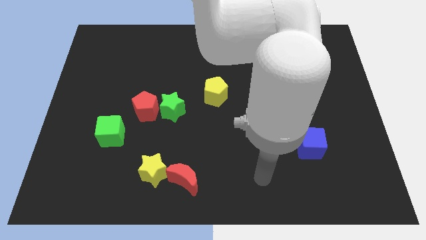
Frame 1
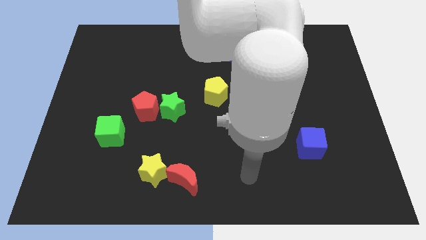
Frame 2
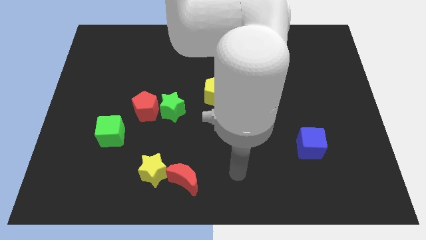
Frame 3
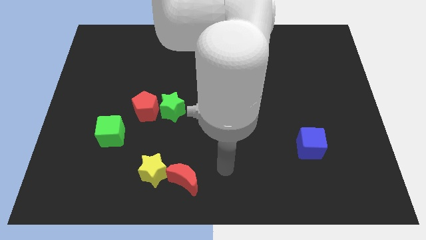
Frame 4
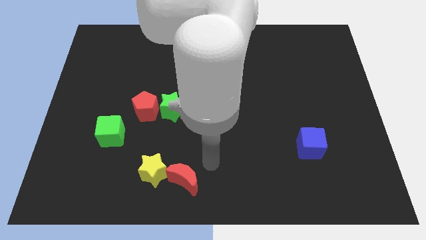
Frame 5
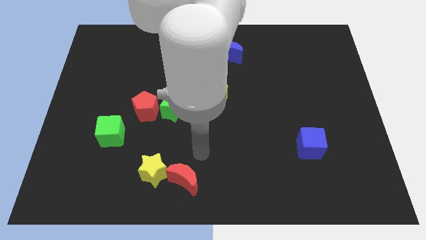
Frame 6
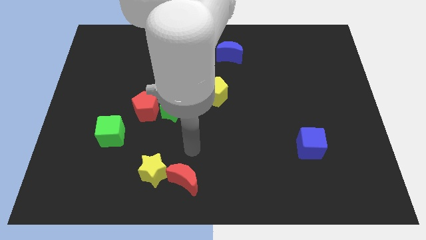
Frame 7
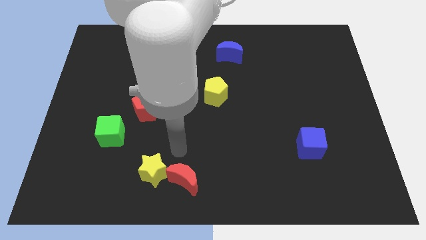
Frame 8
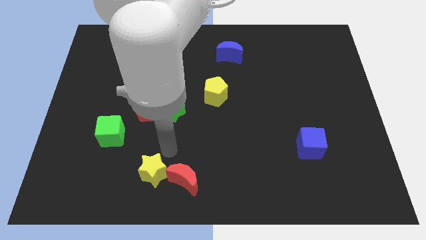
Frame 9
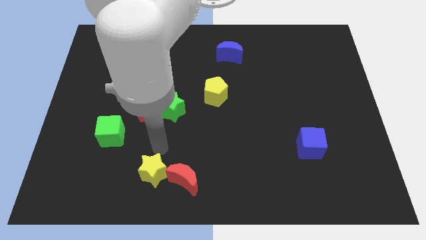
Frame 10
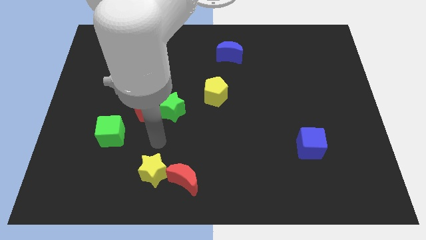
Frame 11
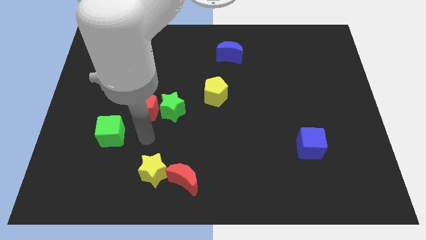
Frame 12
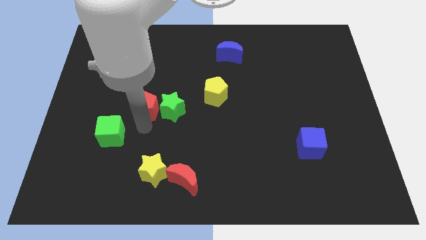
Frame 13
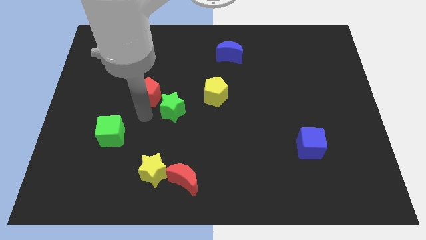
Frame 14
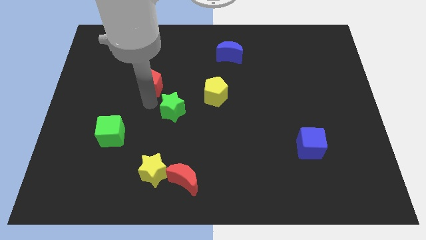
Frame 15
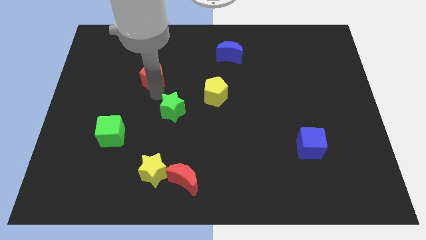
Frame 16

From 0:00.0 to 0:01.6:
move the green star away from the red pentagon

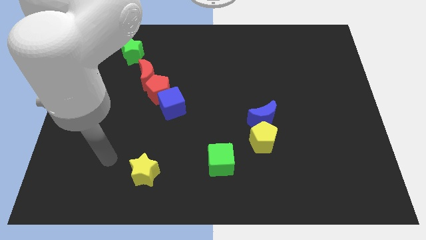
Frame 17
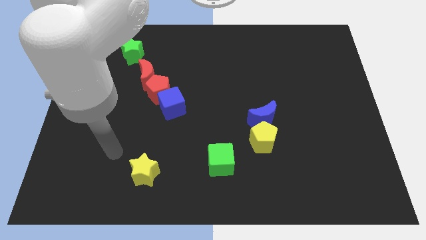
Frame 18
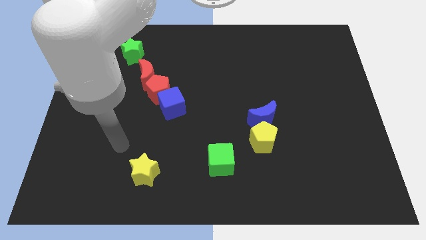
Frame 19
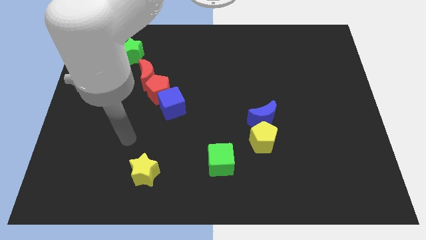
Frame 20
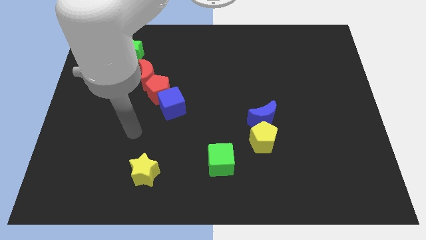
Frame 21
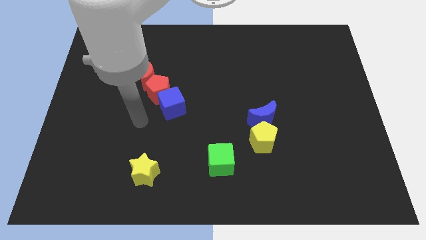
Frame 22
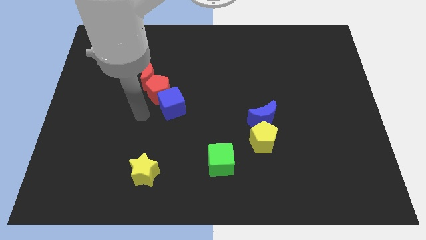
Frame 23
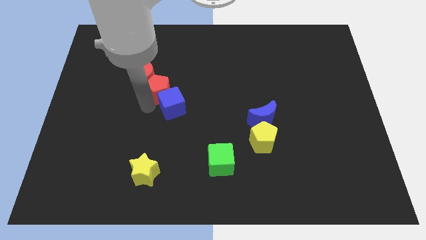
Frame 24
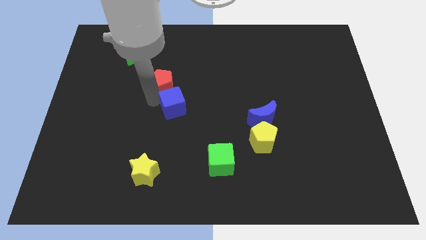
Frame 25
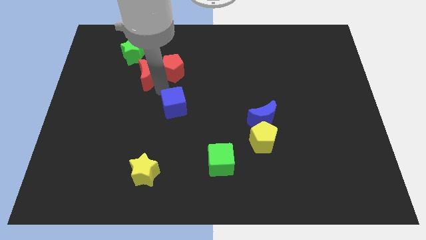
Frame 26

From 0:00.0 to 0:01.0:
pull the blue cube apart from the red pentagon

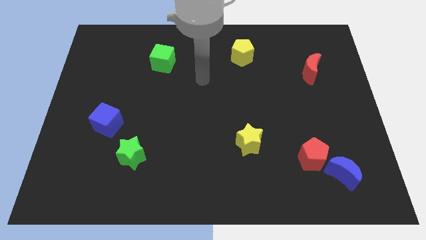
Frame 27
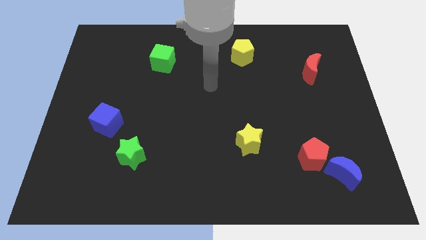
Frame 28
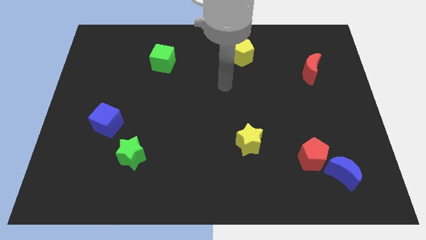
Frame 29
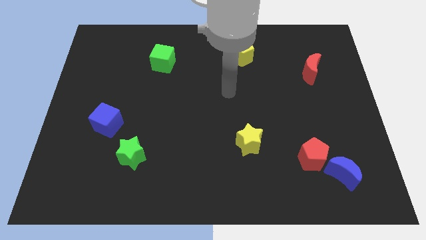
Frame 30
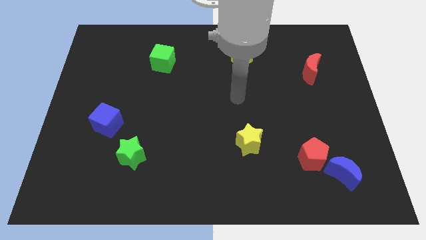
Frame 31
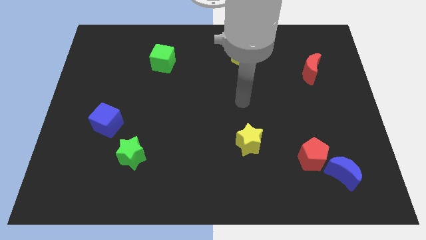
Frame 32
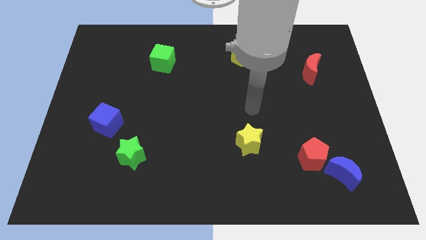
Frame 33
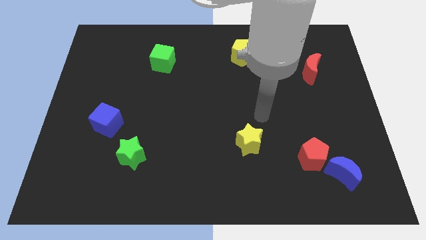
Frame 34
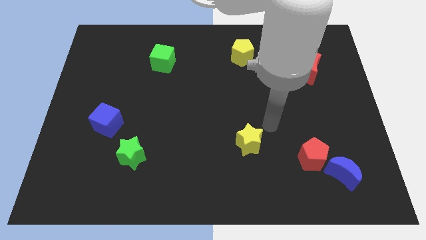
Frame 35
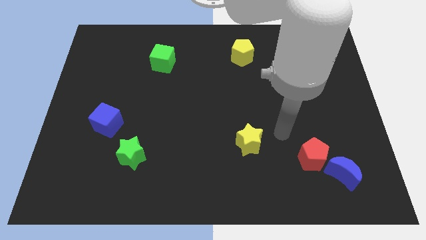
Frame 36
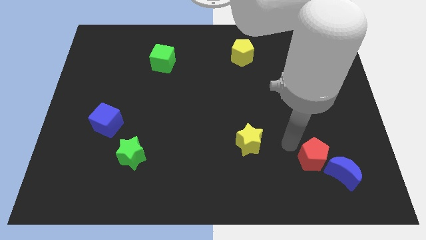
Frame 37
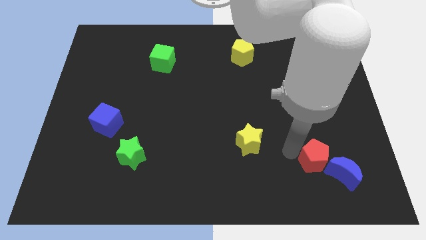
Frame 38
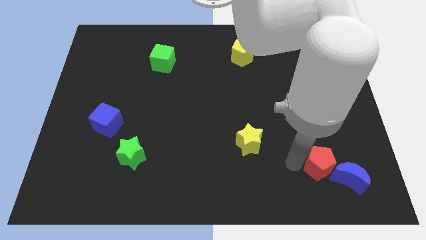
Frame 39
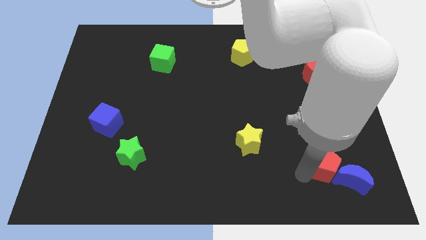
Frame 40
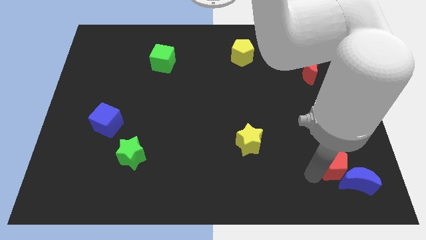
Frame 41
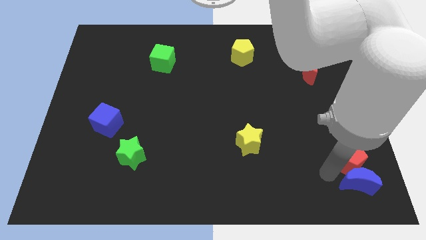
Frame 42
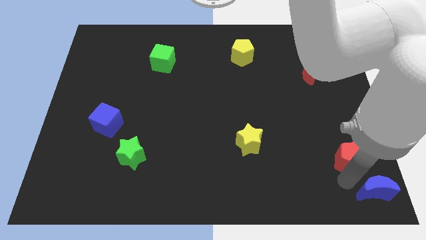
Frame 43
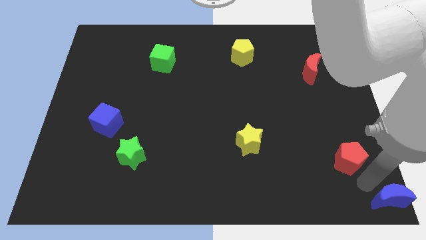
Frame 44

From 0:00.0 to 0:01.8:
move the red pentagon away from the blue moon

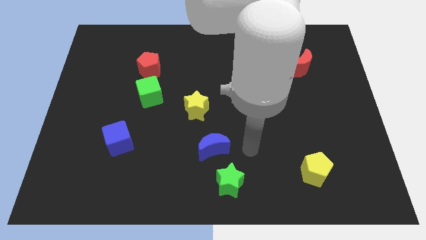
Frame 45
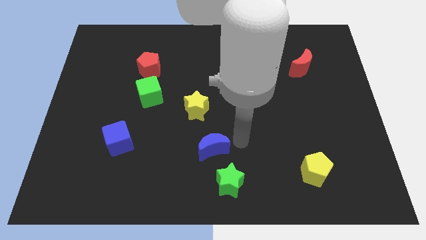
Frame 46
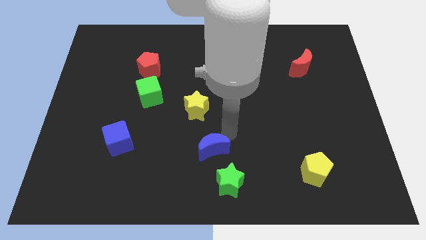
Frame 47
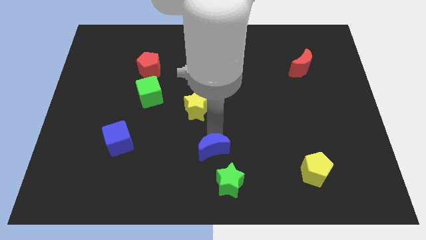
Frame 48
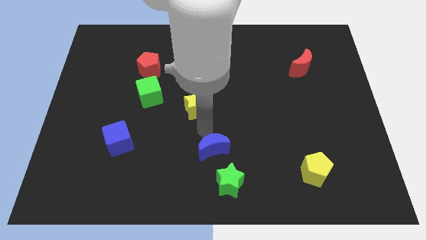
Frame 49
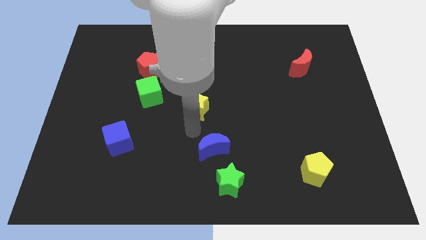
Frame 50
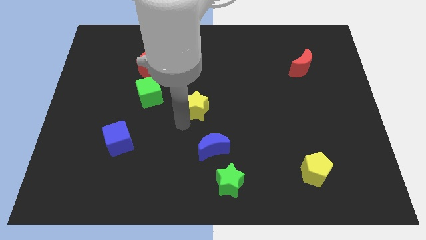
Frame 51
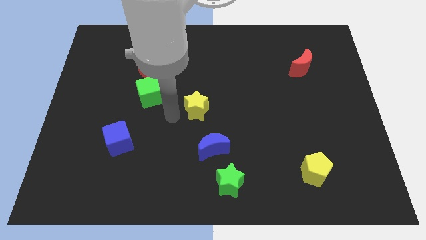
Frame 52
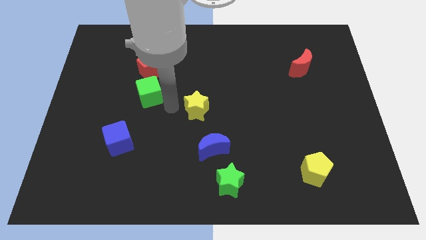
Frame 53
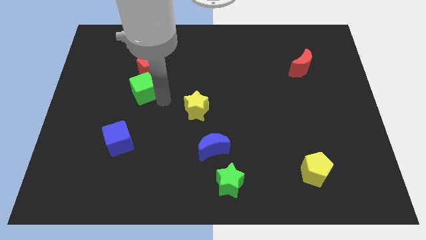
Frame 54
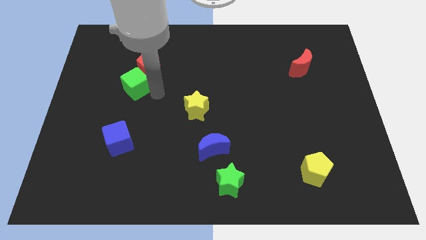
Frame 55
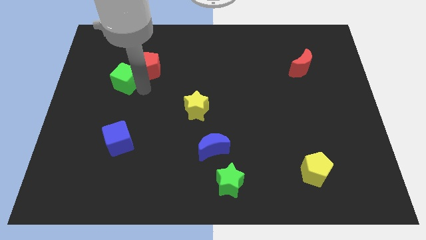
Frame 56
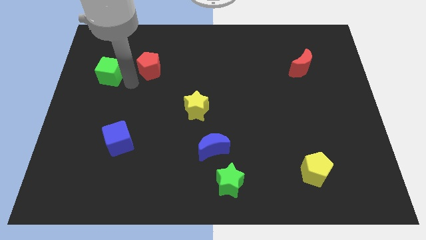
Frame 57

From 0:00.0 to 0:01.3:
pull the red pentagon apart from the green cube

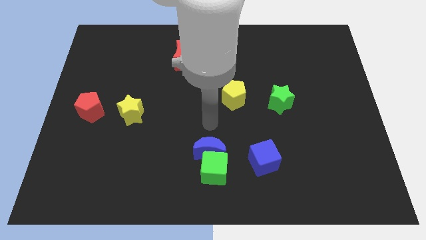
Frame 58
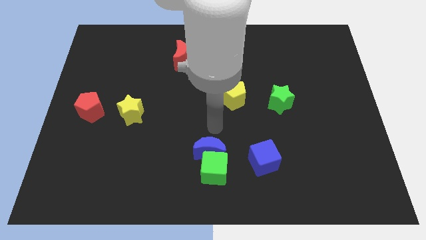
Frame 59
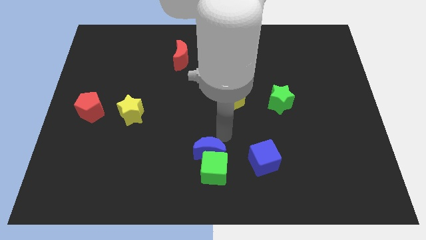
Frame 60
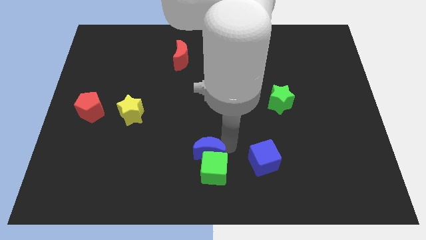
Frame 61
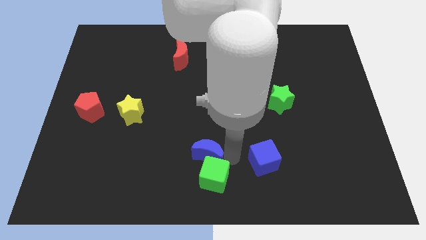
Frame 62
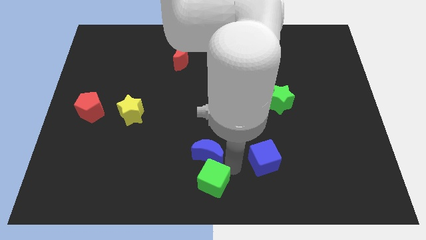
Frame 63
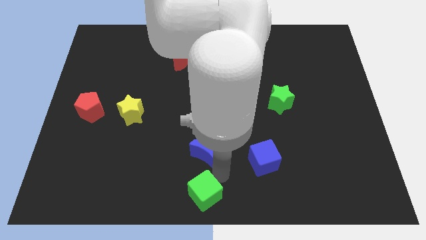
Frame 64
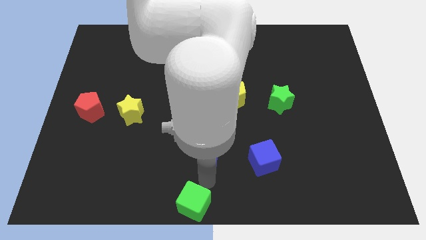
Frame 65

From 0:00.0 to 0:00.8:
pull the blue moon apart from the green cube

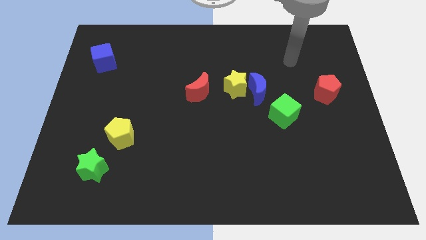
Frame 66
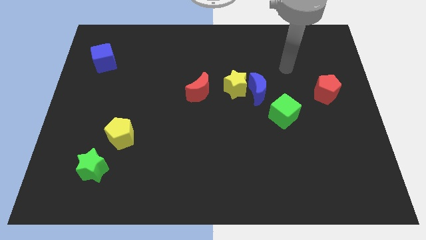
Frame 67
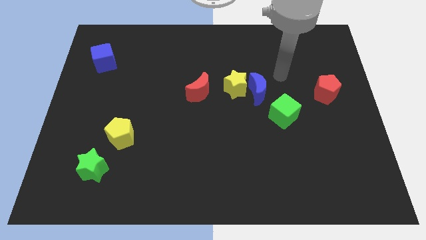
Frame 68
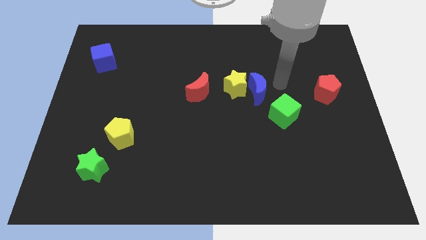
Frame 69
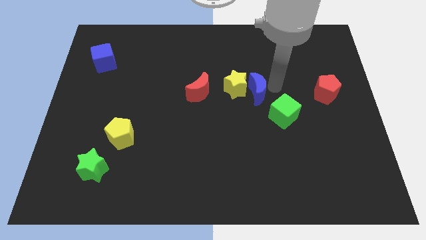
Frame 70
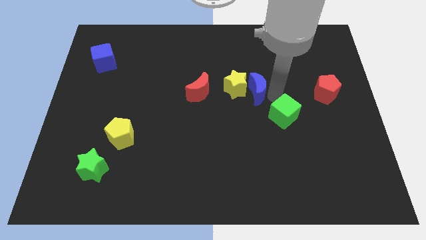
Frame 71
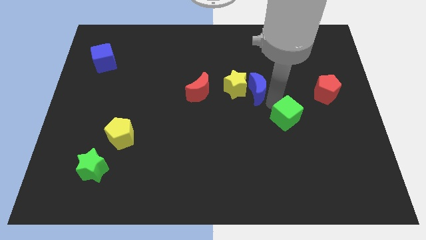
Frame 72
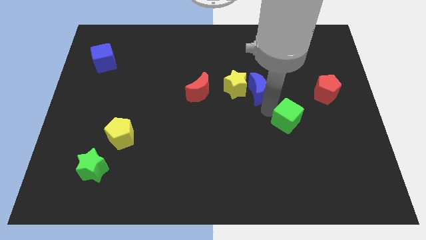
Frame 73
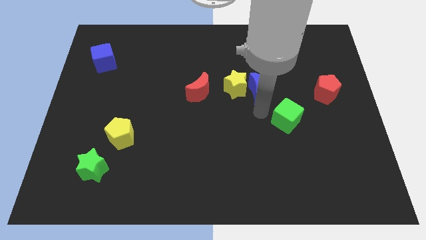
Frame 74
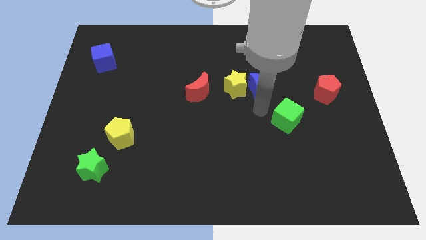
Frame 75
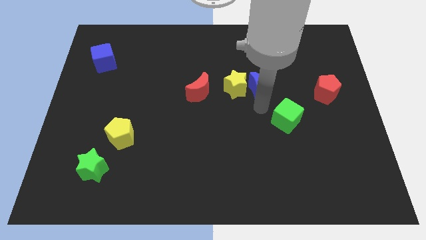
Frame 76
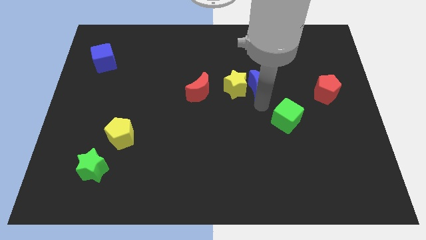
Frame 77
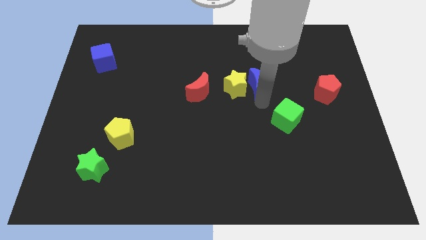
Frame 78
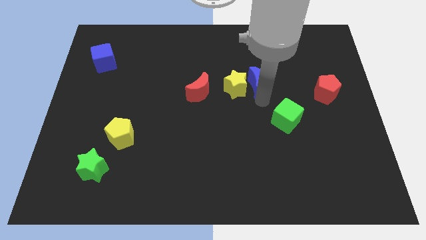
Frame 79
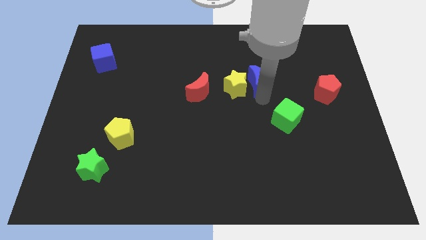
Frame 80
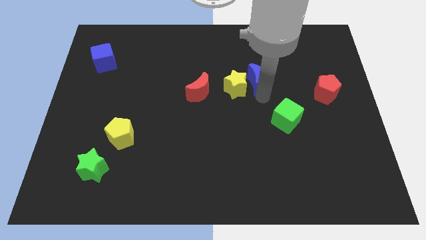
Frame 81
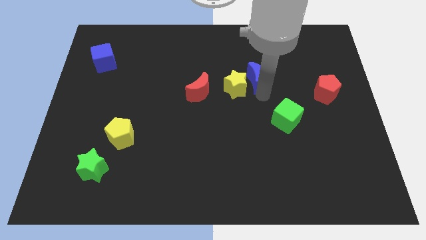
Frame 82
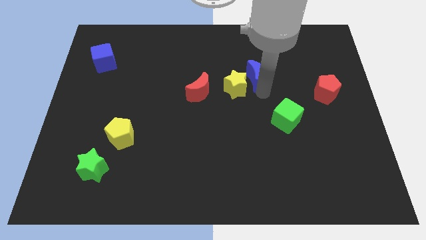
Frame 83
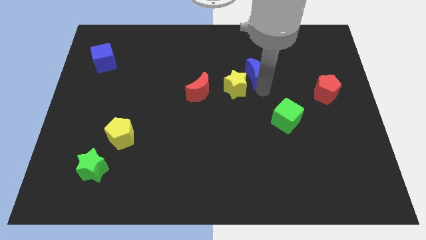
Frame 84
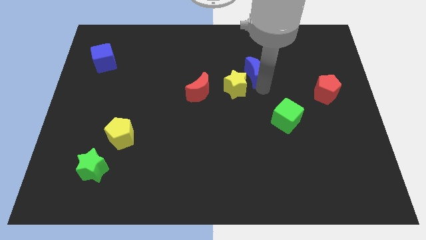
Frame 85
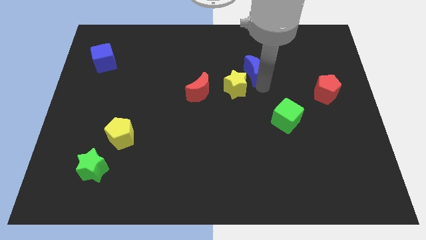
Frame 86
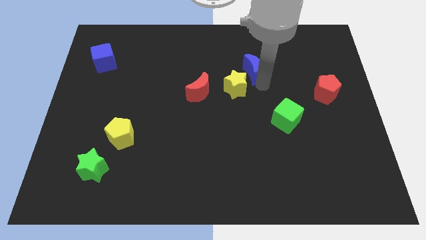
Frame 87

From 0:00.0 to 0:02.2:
move the blue moon away from the yellow star and green cube

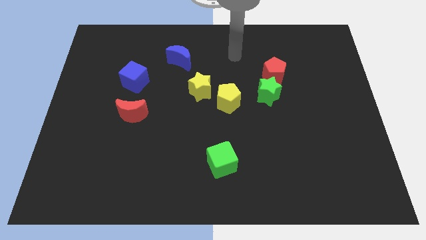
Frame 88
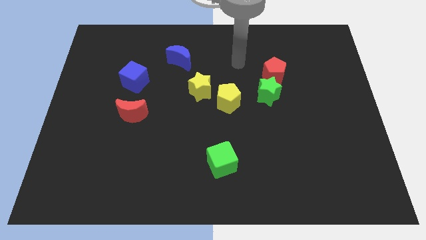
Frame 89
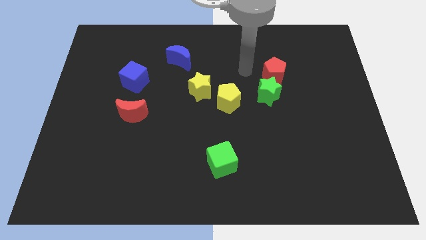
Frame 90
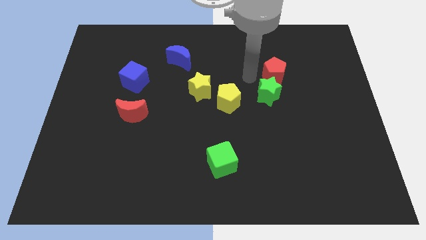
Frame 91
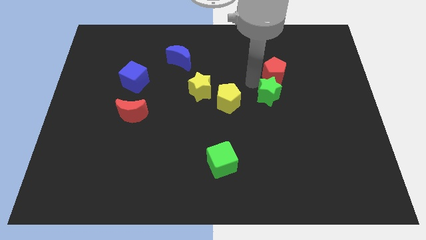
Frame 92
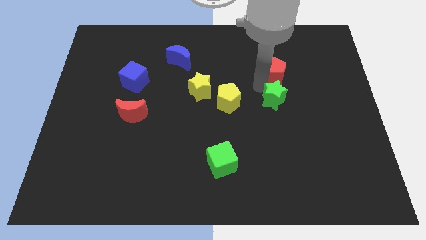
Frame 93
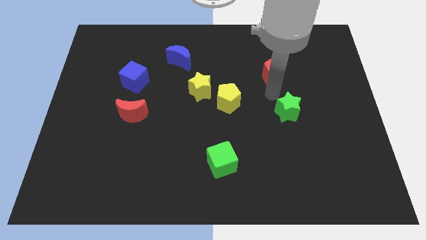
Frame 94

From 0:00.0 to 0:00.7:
move the red pentagon away from the green star
